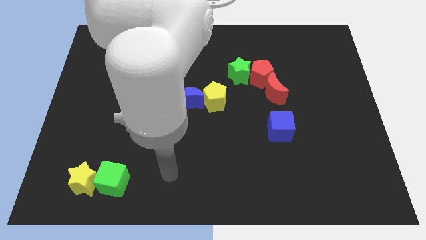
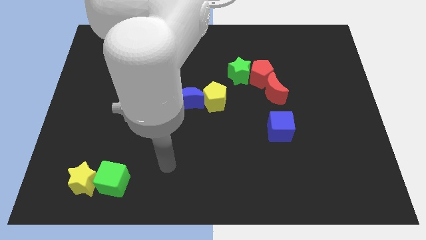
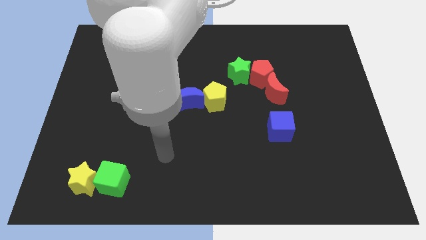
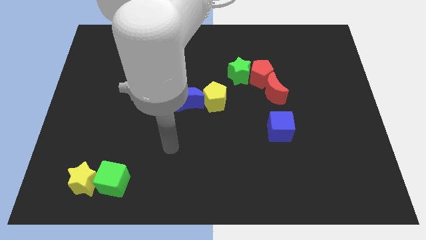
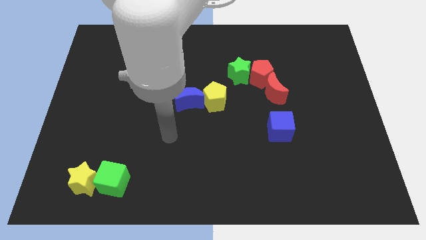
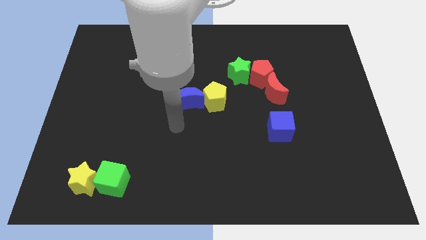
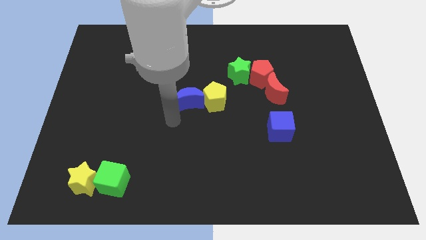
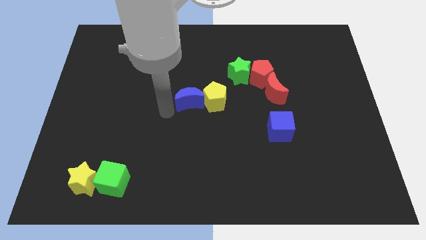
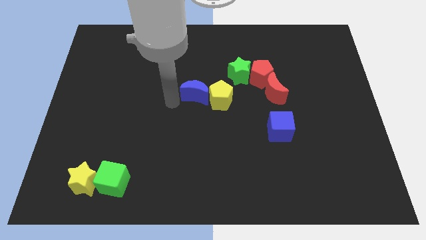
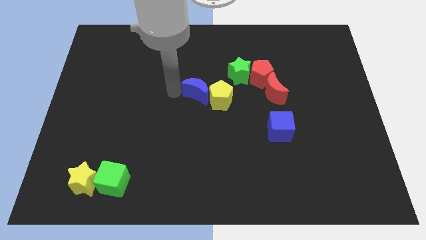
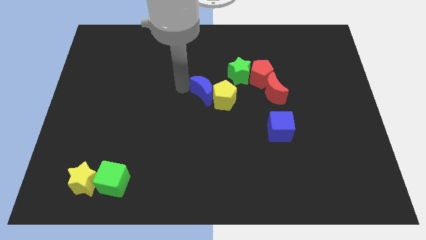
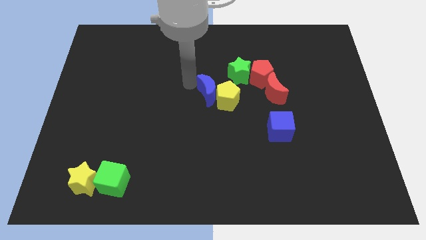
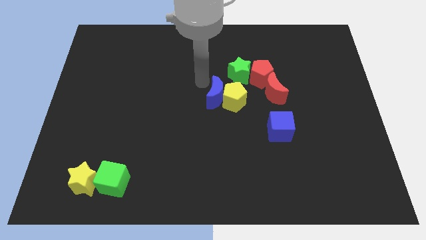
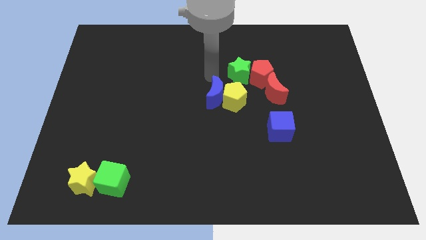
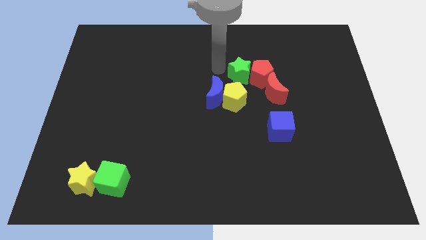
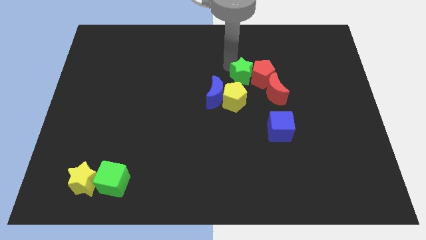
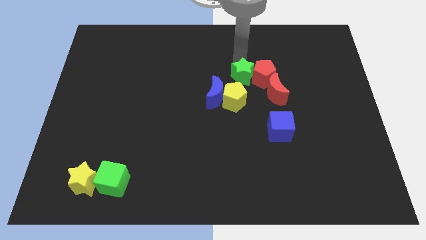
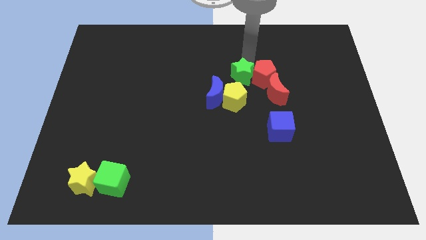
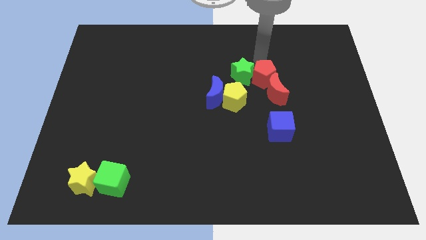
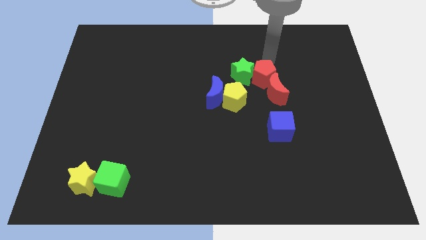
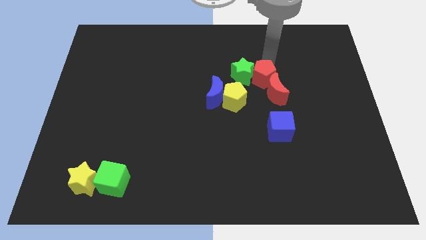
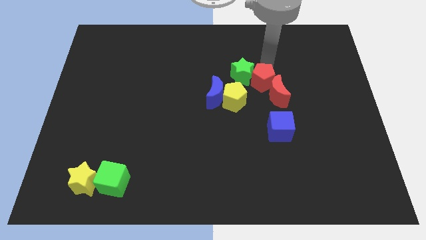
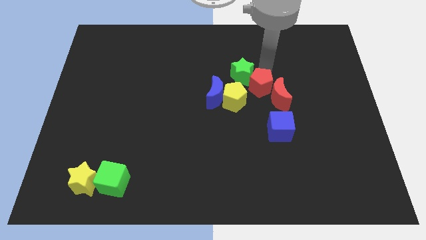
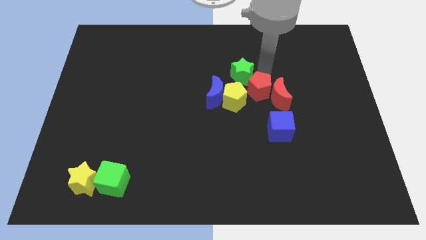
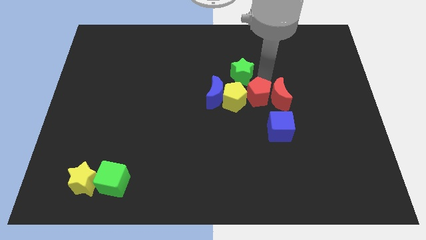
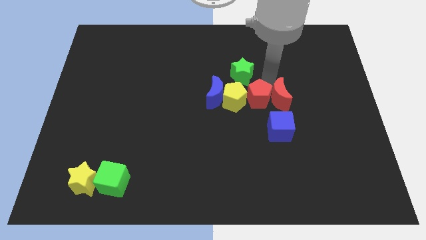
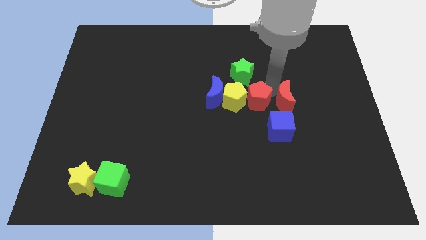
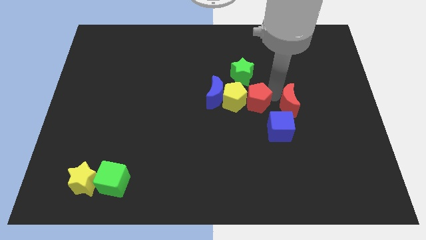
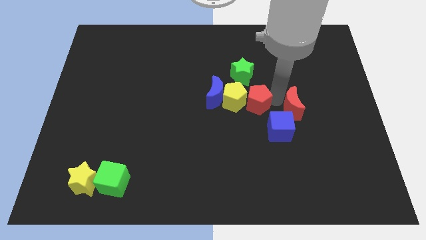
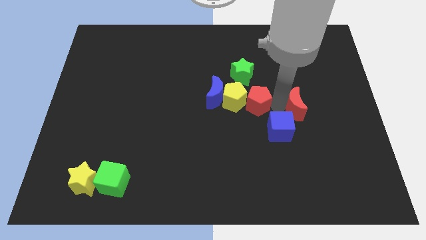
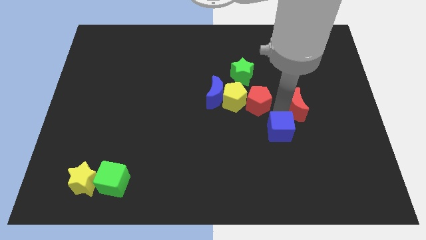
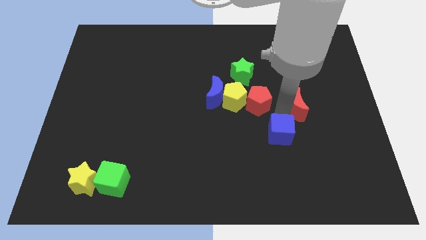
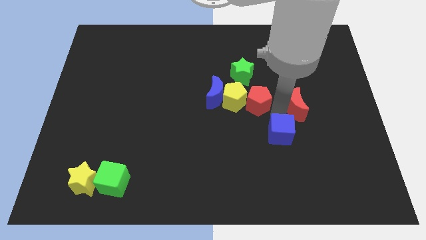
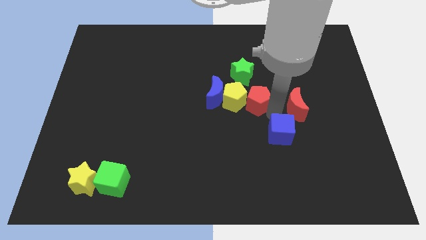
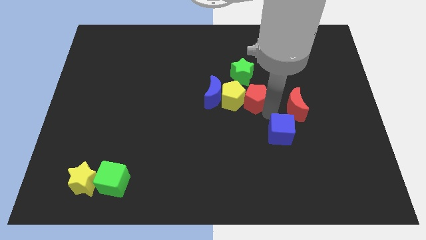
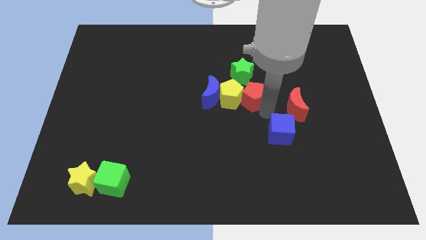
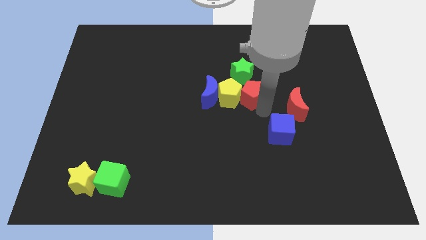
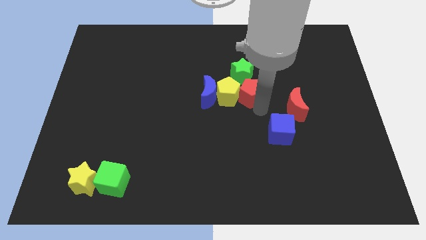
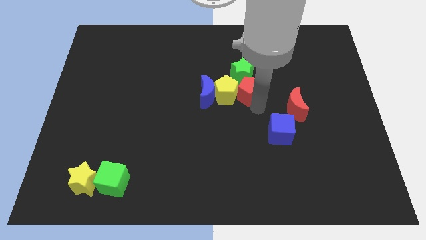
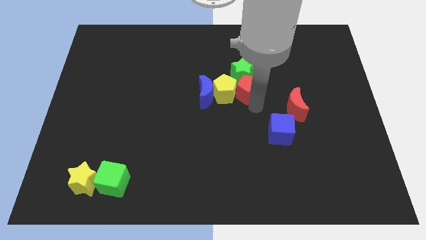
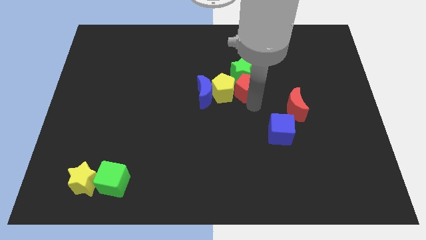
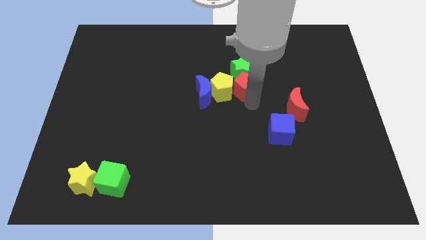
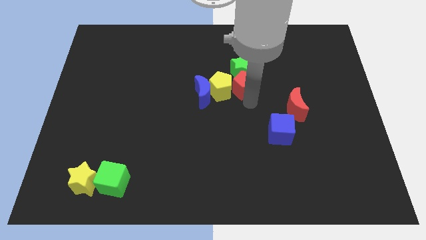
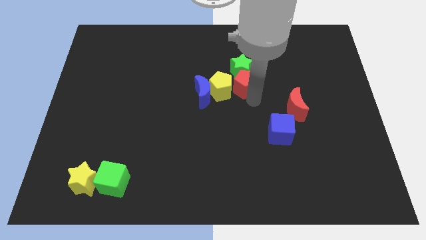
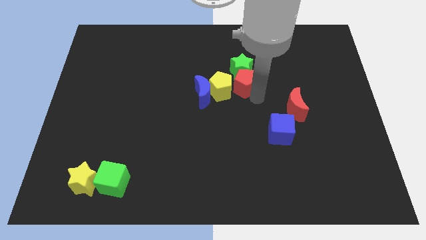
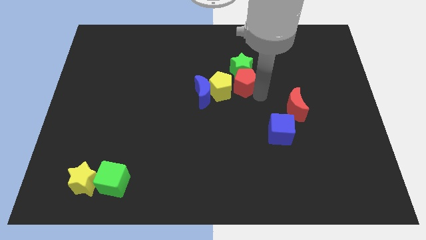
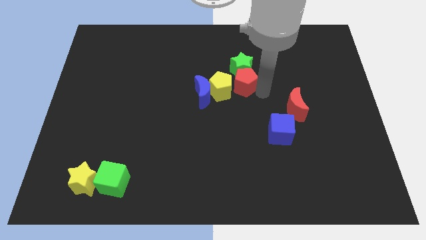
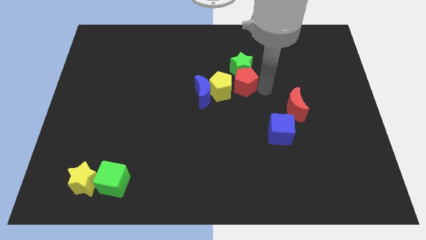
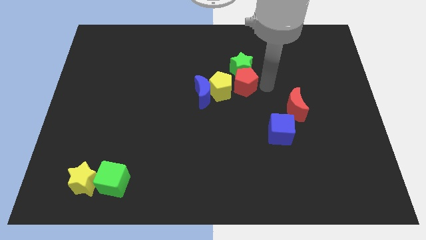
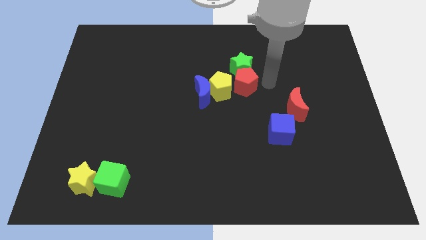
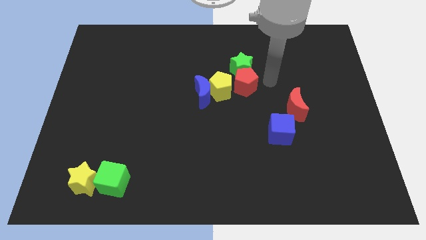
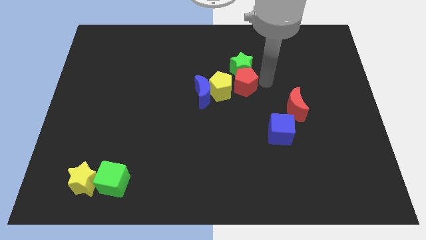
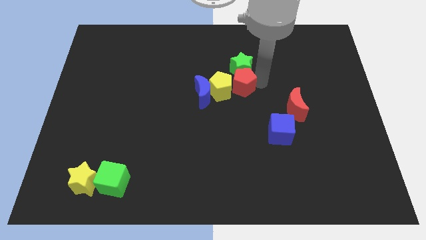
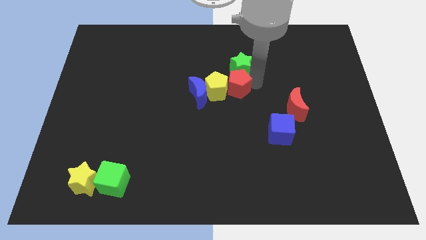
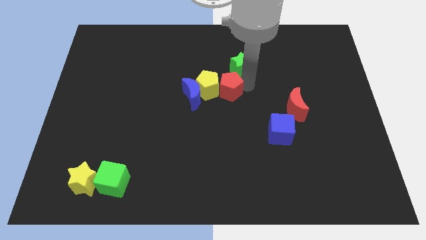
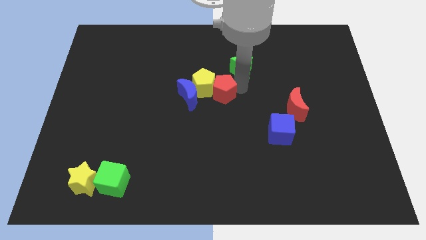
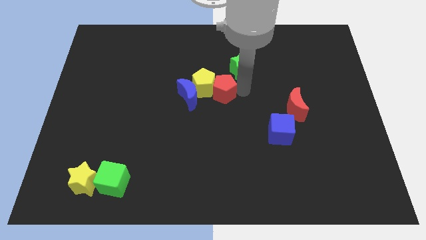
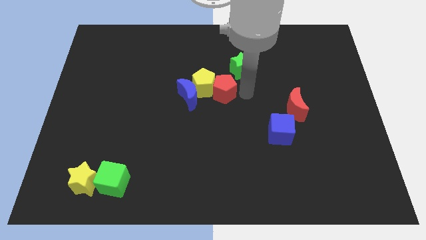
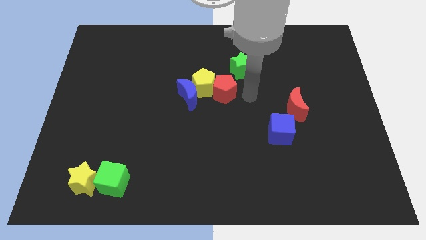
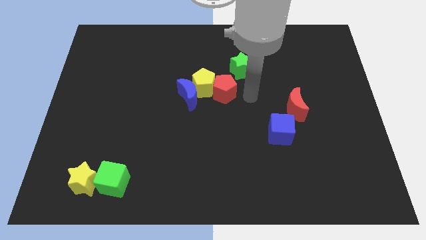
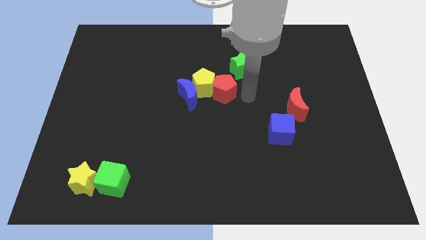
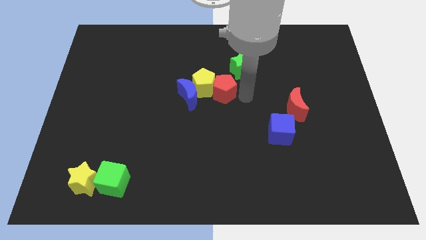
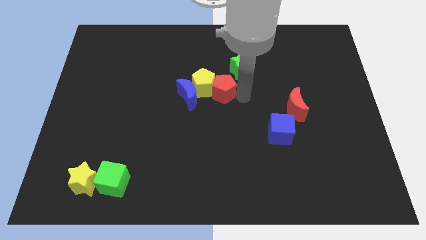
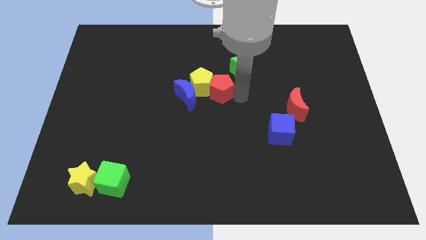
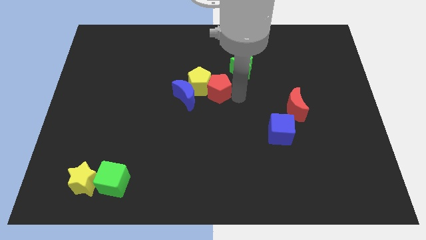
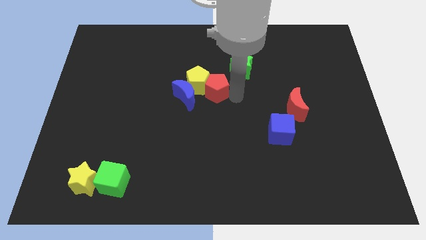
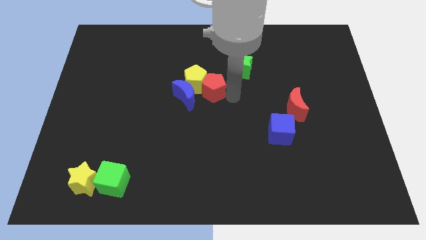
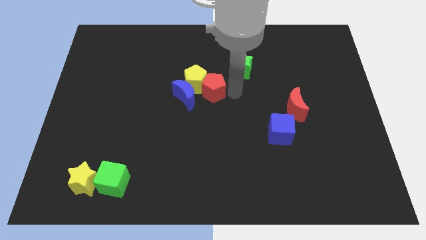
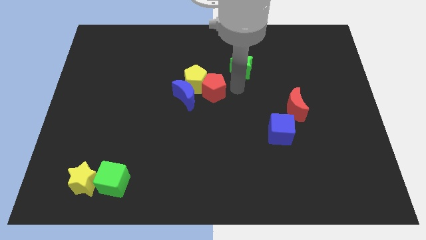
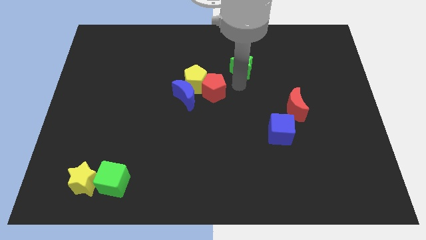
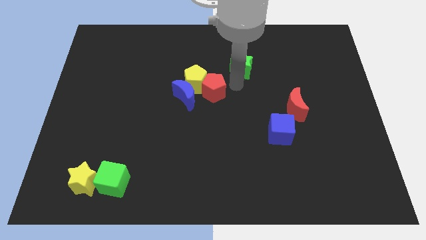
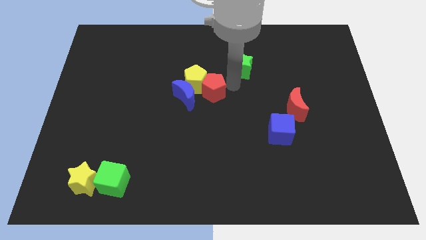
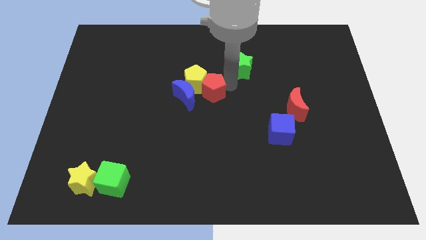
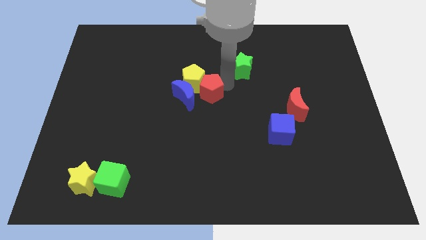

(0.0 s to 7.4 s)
push the red pentagon towards the blue moon

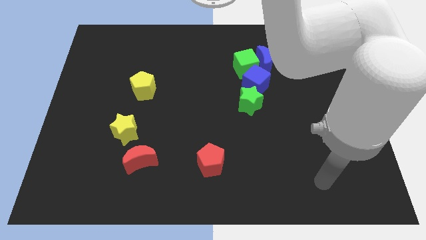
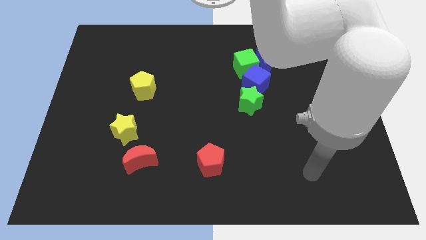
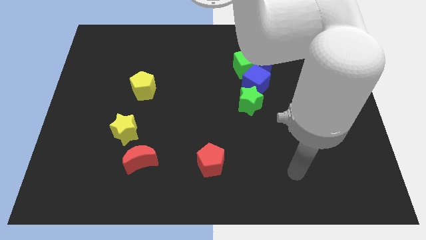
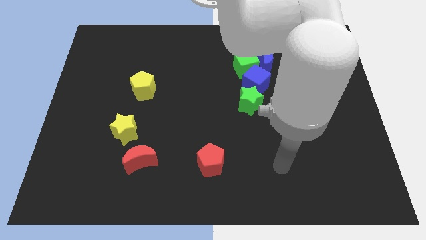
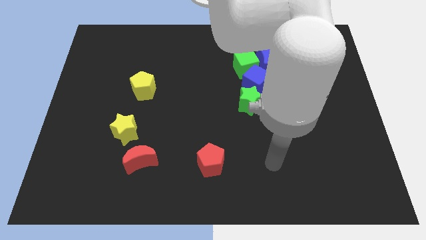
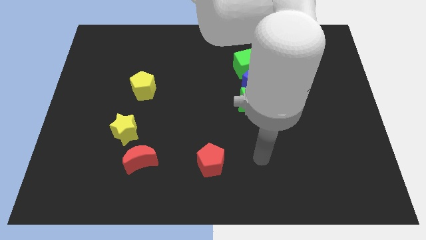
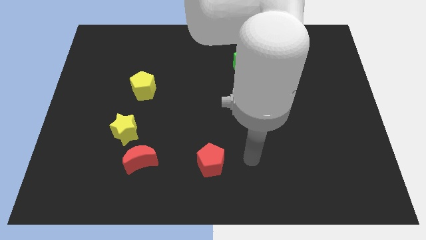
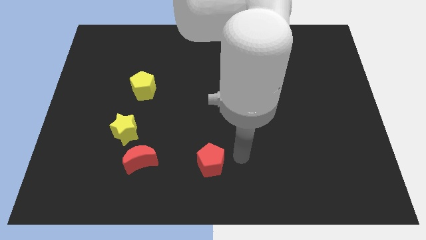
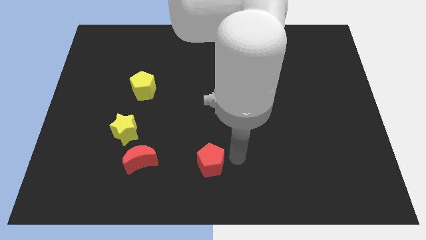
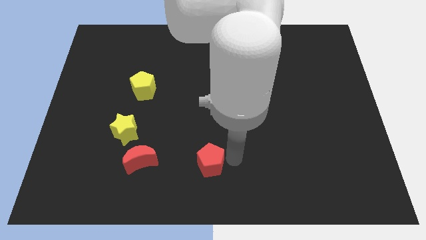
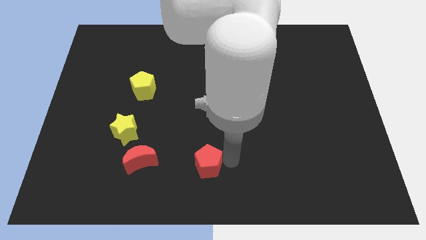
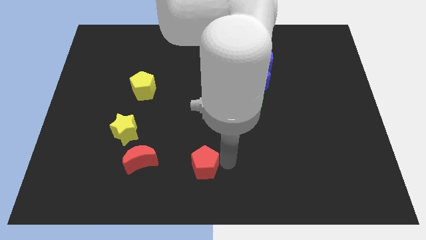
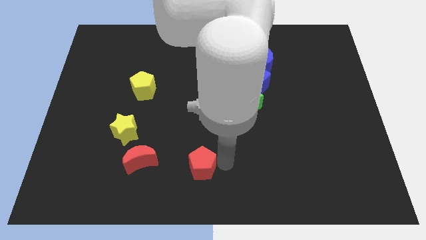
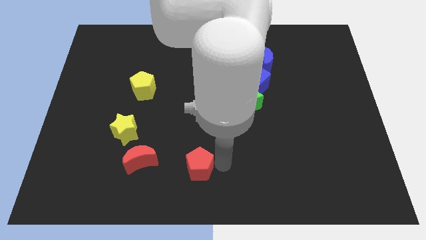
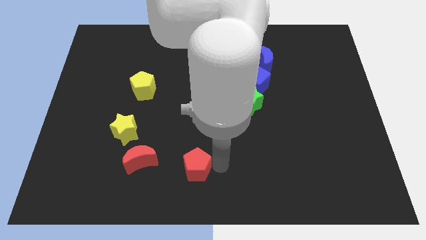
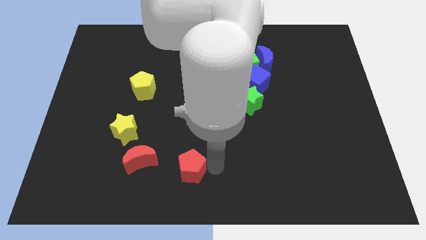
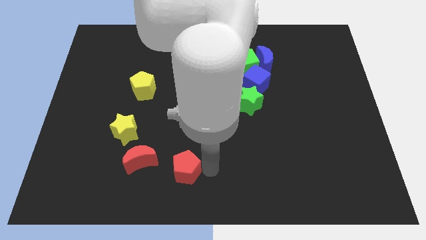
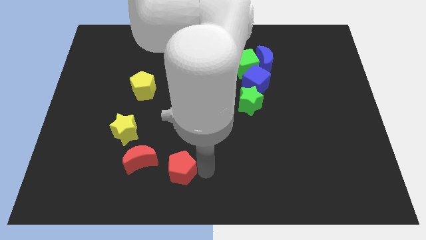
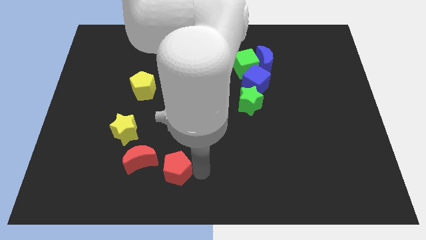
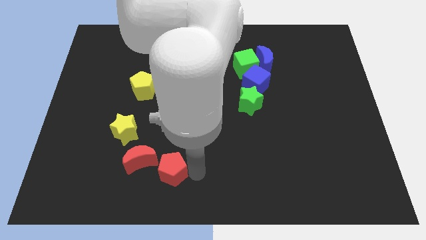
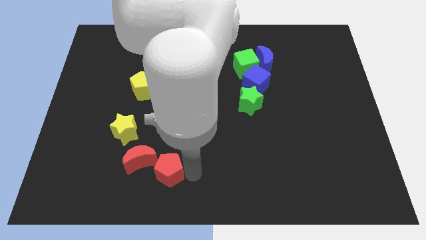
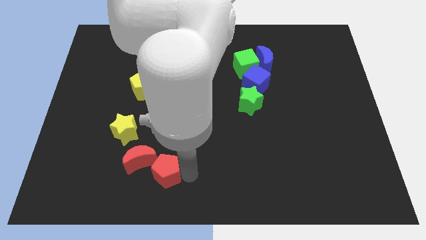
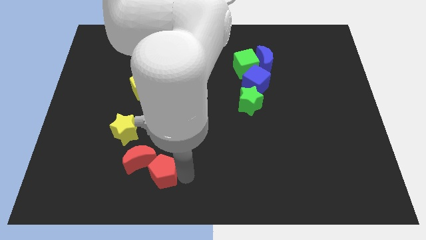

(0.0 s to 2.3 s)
move the red pentagon to the red moon
